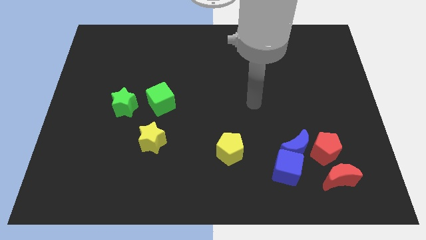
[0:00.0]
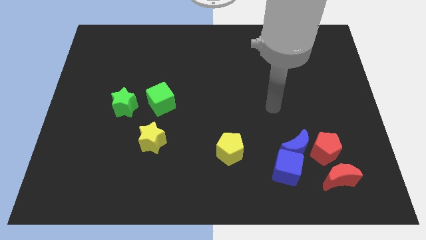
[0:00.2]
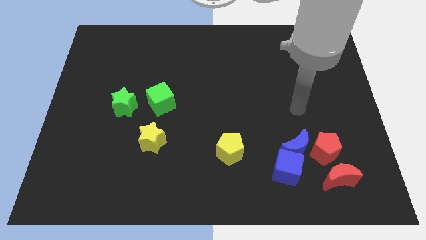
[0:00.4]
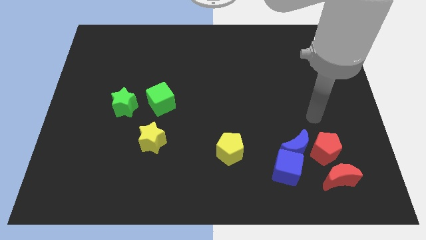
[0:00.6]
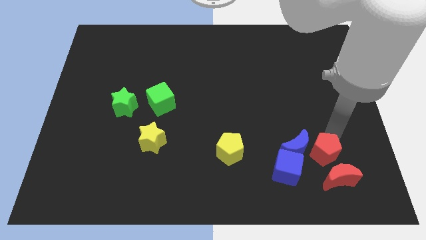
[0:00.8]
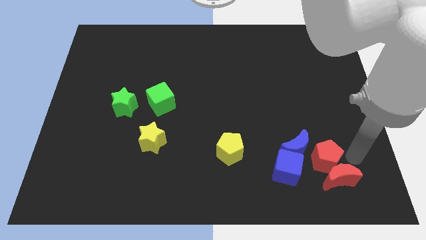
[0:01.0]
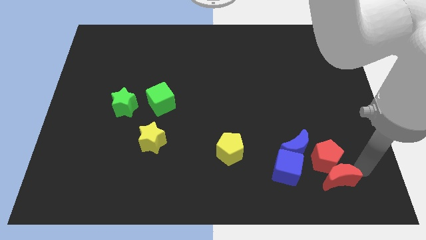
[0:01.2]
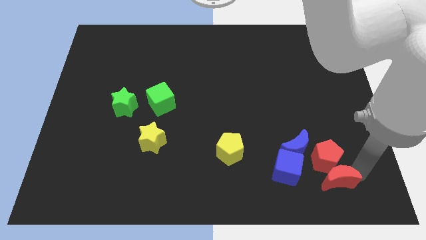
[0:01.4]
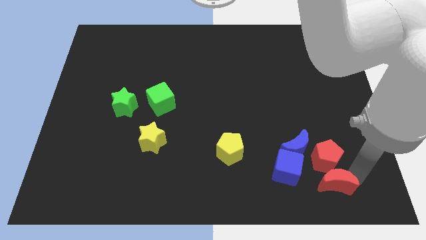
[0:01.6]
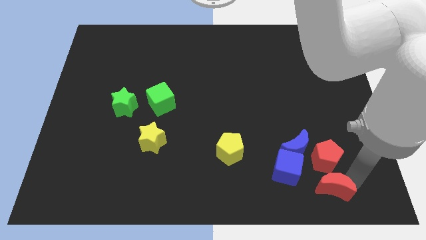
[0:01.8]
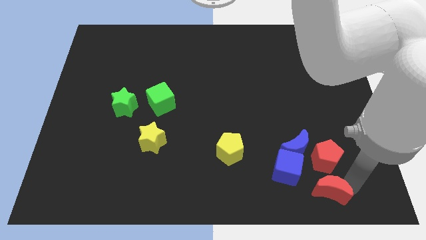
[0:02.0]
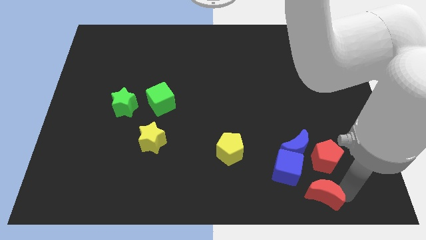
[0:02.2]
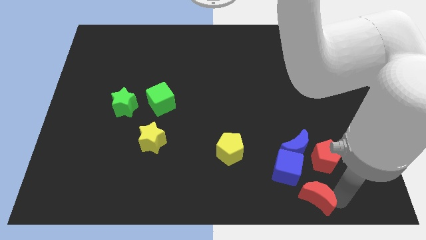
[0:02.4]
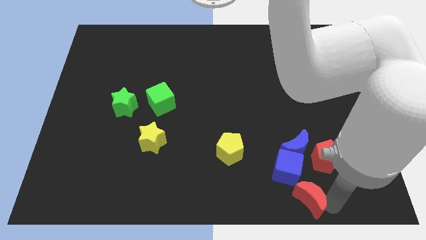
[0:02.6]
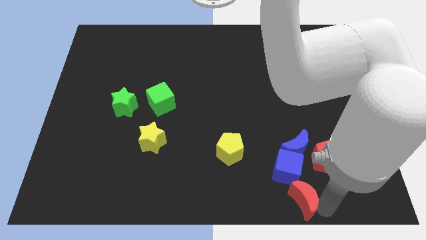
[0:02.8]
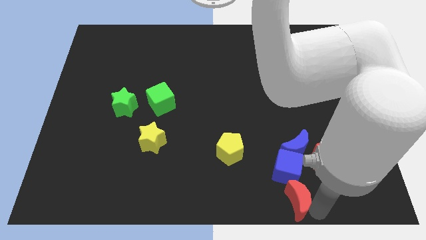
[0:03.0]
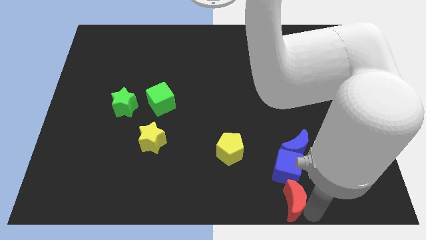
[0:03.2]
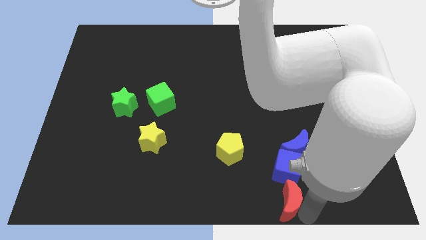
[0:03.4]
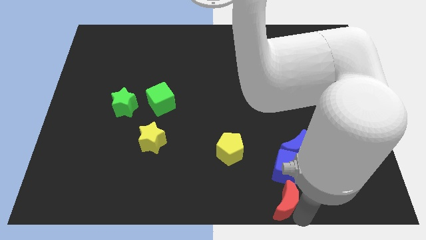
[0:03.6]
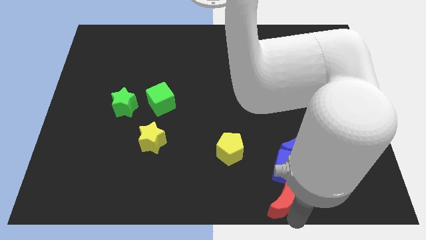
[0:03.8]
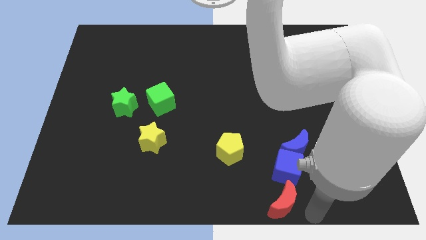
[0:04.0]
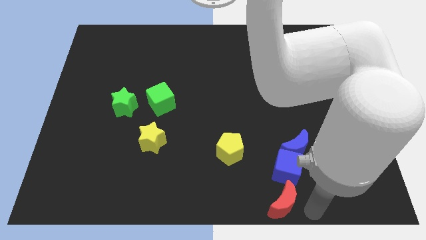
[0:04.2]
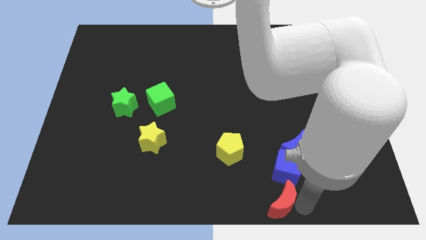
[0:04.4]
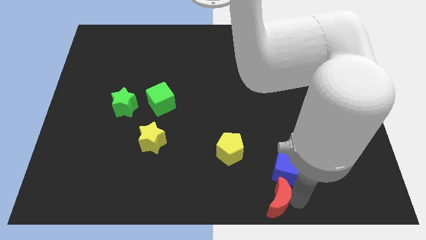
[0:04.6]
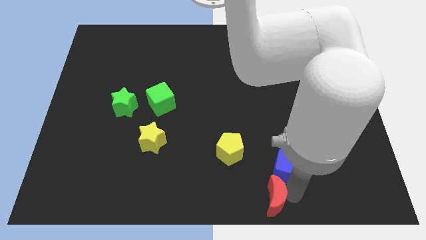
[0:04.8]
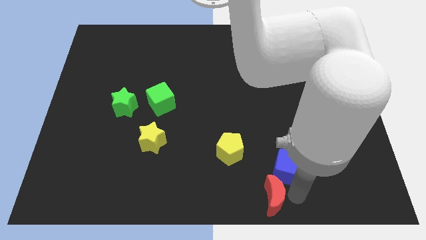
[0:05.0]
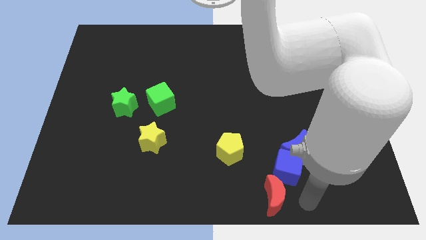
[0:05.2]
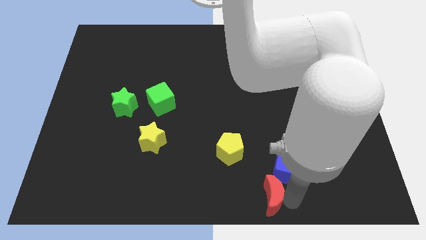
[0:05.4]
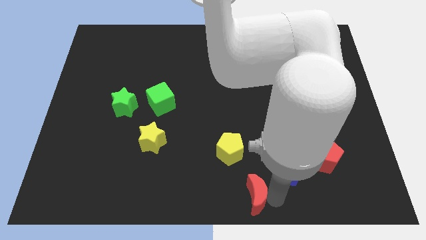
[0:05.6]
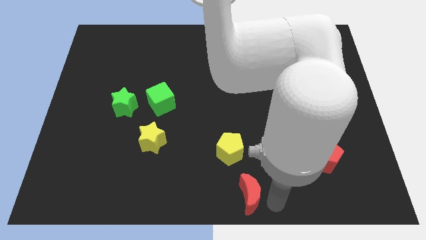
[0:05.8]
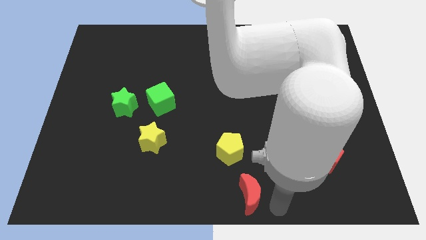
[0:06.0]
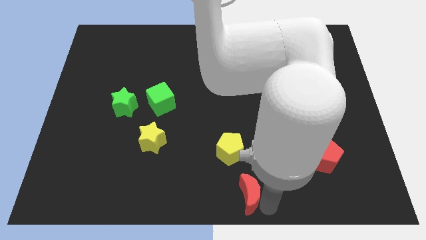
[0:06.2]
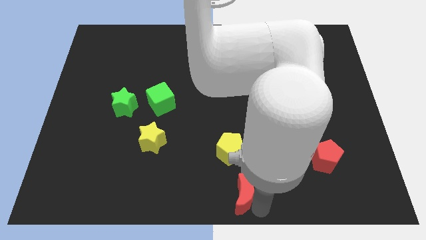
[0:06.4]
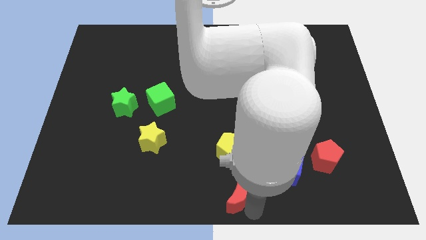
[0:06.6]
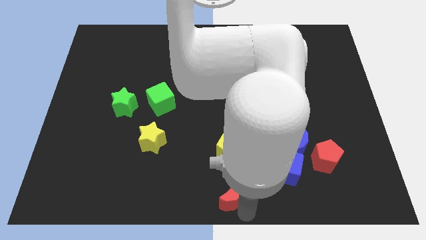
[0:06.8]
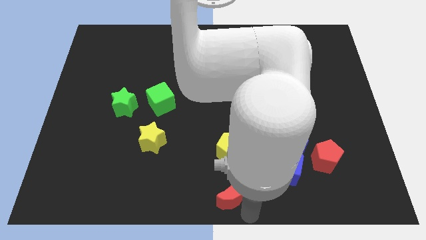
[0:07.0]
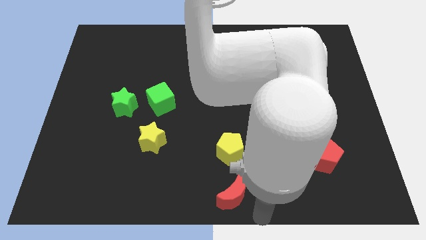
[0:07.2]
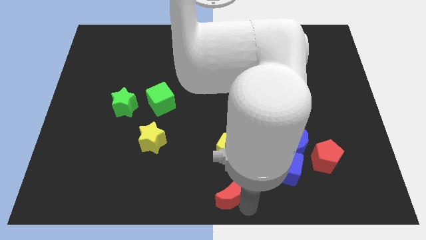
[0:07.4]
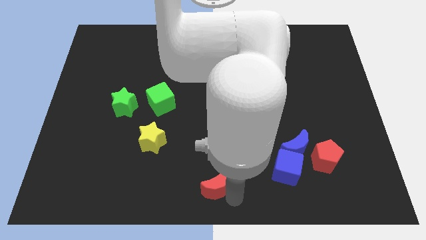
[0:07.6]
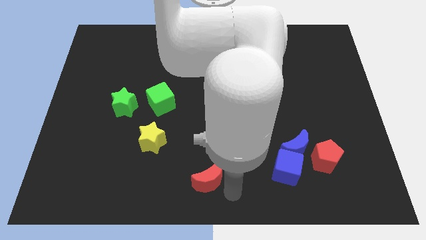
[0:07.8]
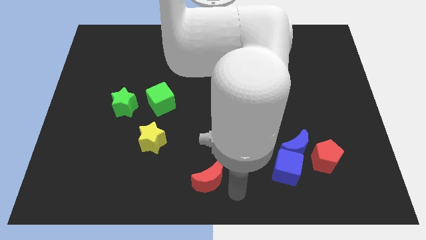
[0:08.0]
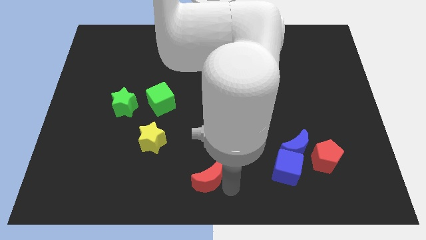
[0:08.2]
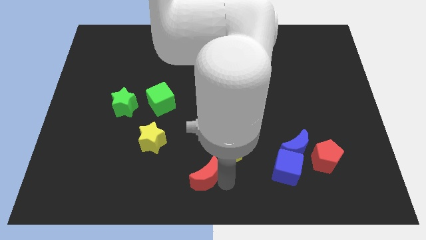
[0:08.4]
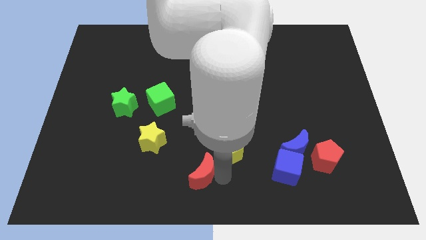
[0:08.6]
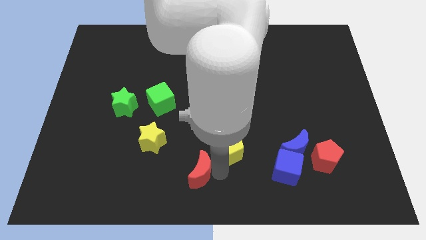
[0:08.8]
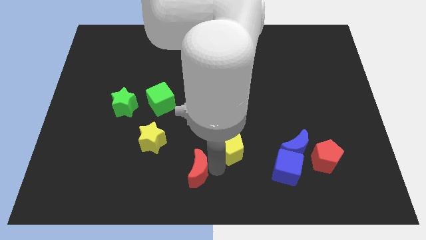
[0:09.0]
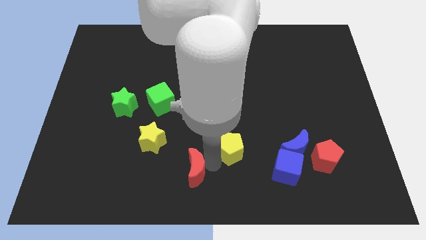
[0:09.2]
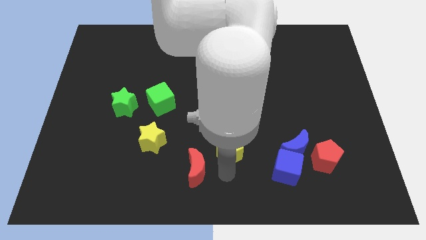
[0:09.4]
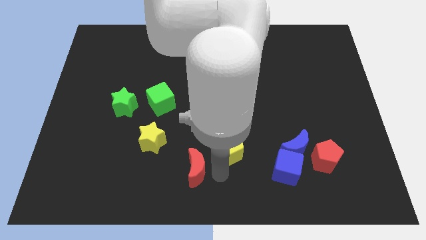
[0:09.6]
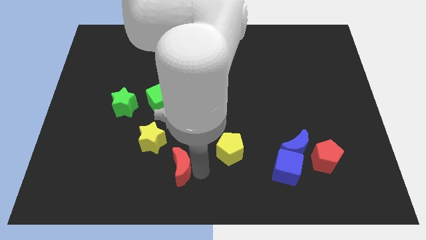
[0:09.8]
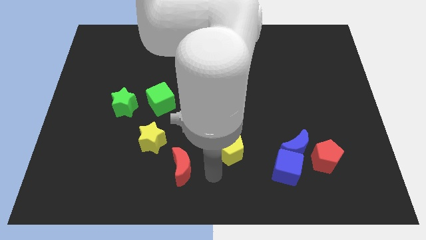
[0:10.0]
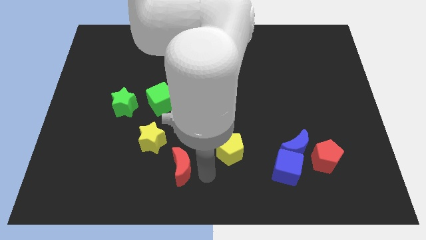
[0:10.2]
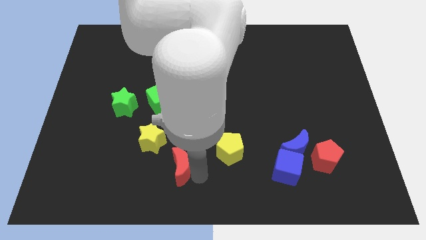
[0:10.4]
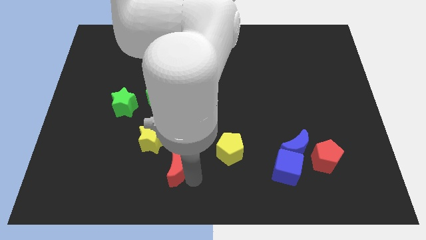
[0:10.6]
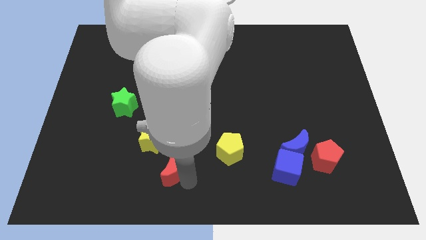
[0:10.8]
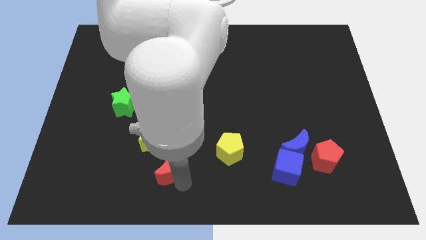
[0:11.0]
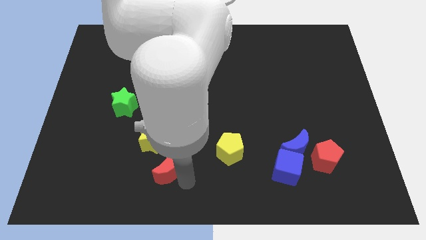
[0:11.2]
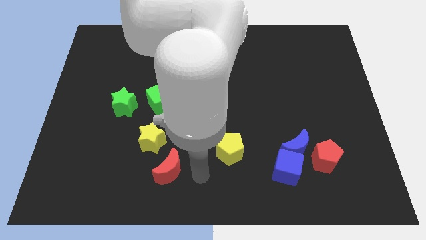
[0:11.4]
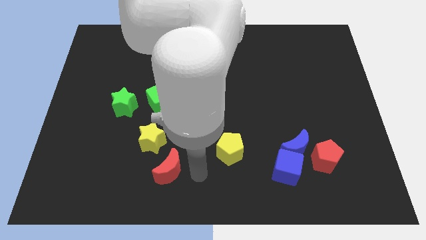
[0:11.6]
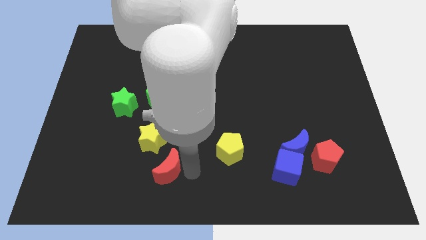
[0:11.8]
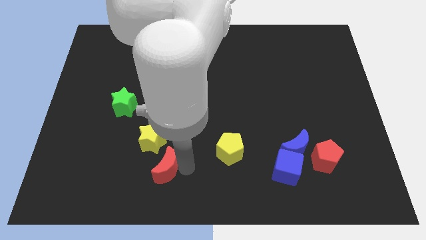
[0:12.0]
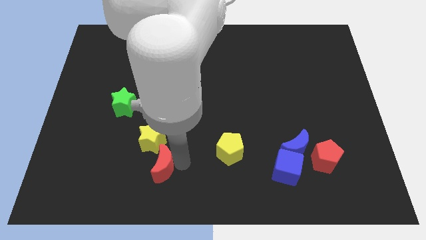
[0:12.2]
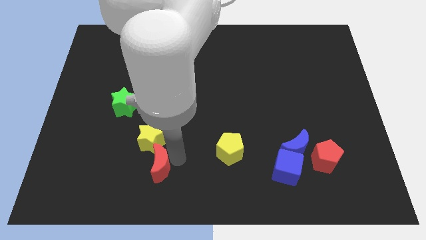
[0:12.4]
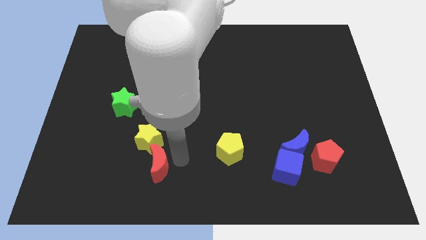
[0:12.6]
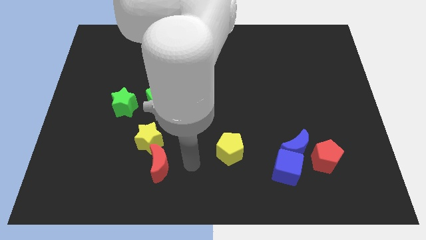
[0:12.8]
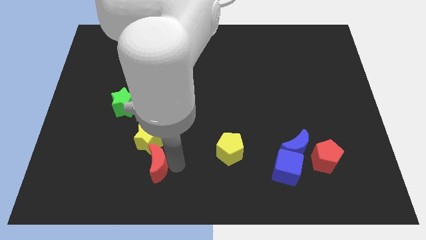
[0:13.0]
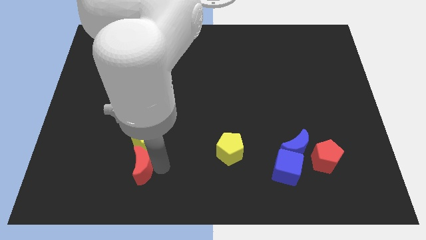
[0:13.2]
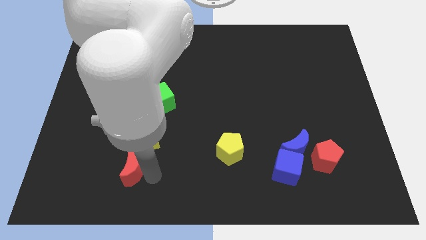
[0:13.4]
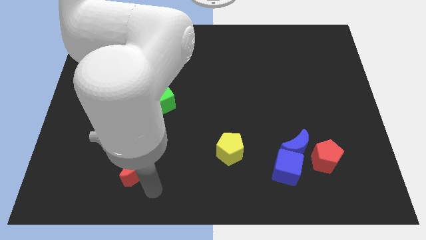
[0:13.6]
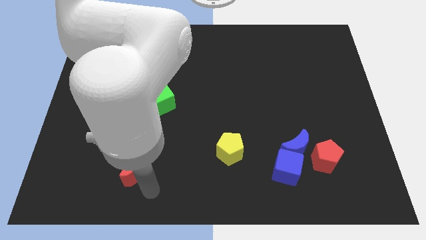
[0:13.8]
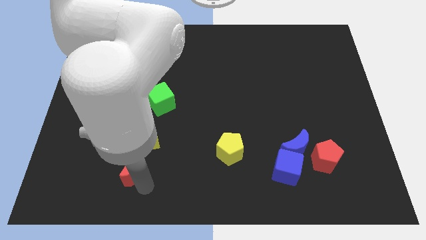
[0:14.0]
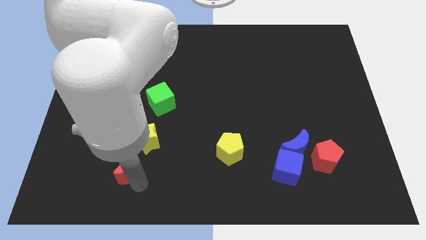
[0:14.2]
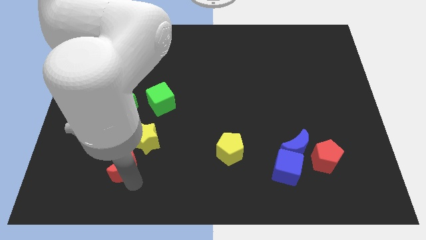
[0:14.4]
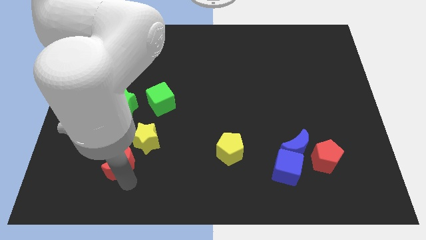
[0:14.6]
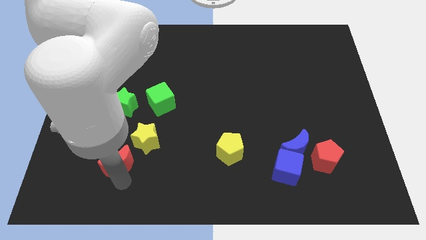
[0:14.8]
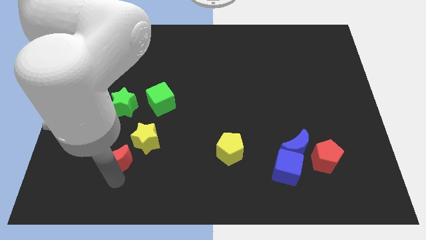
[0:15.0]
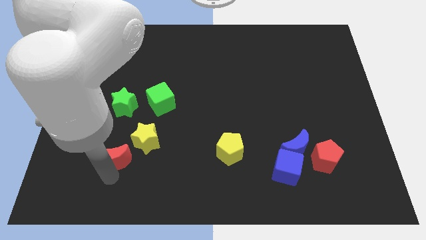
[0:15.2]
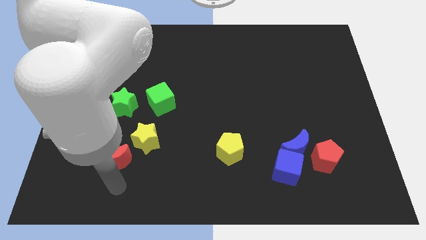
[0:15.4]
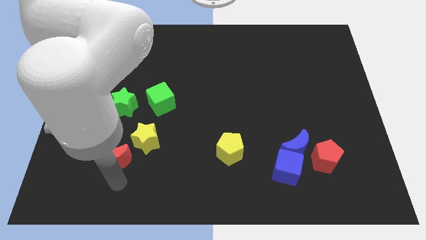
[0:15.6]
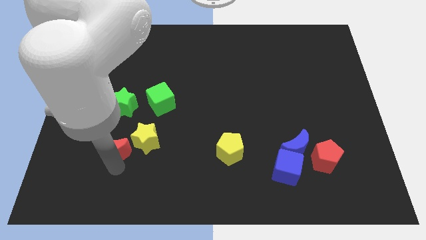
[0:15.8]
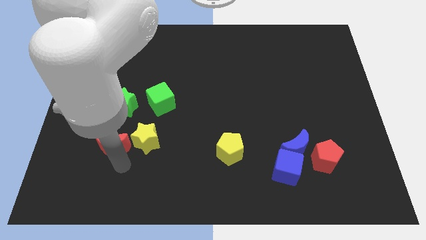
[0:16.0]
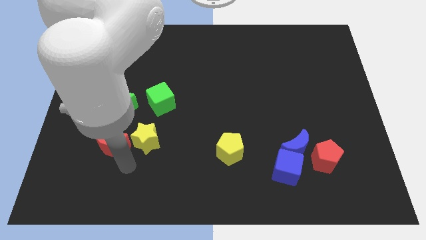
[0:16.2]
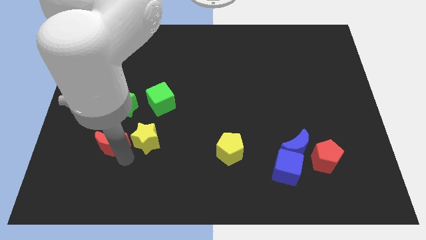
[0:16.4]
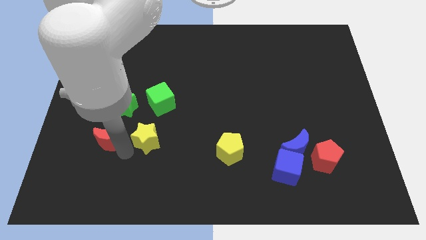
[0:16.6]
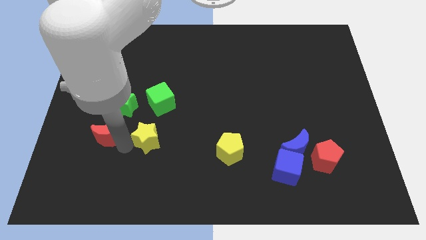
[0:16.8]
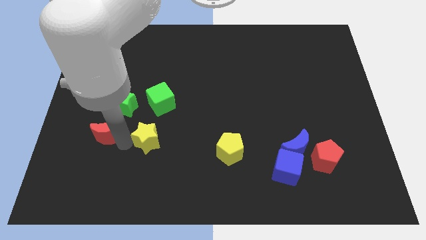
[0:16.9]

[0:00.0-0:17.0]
push the red moon to the bottom left of the green star
